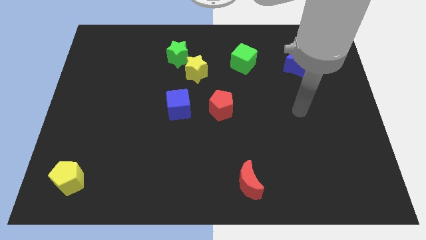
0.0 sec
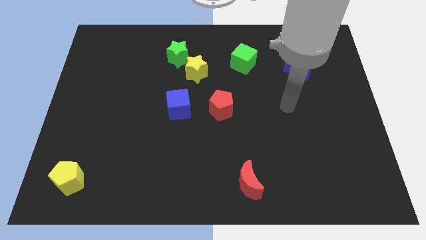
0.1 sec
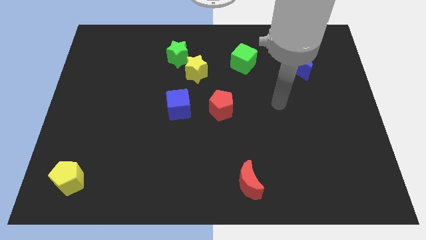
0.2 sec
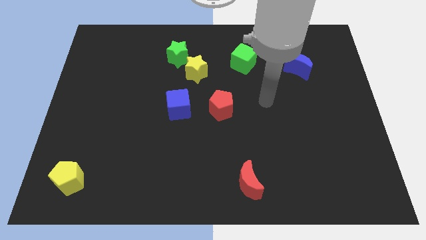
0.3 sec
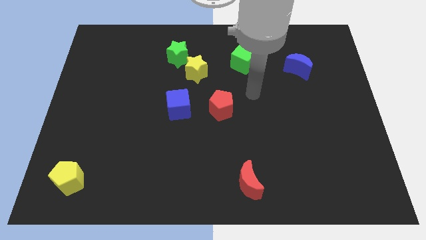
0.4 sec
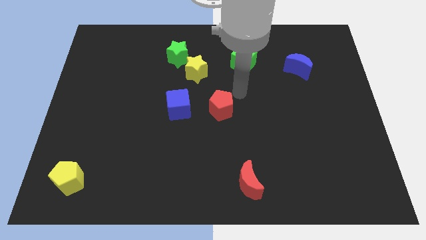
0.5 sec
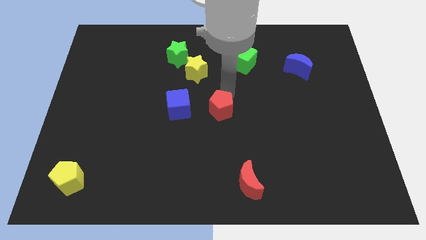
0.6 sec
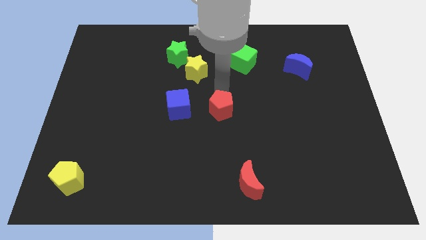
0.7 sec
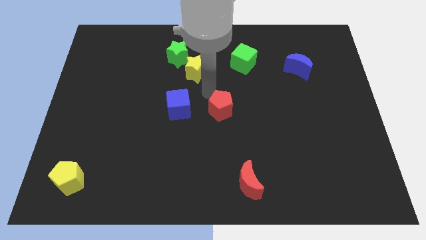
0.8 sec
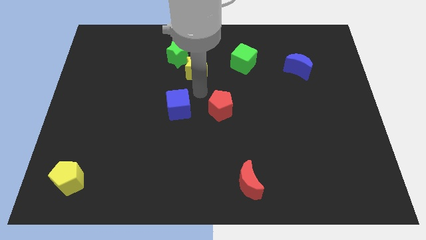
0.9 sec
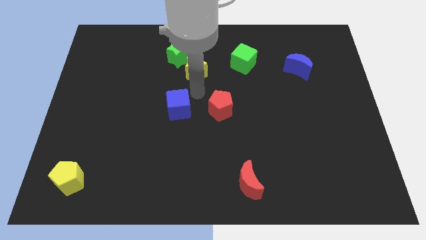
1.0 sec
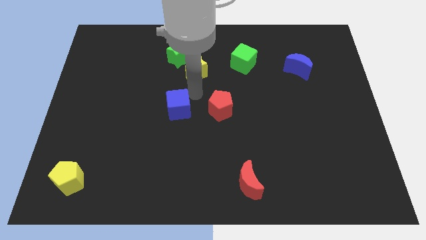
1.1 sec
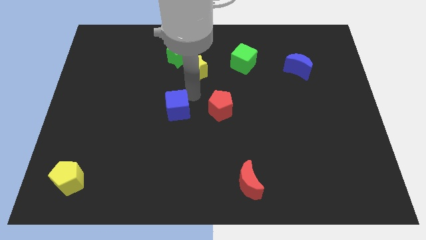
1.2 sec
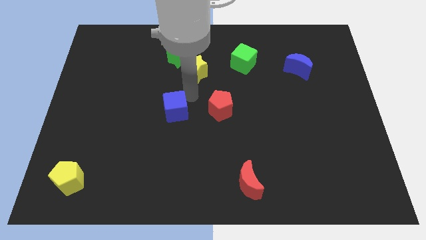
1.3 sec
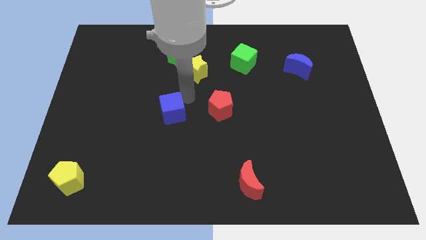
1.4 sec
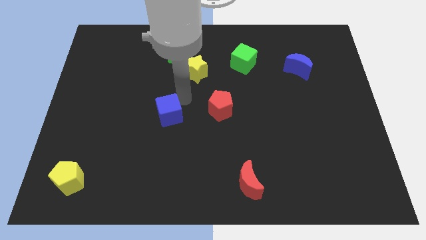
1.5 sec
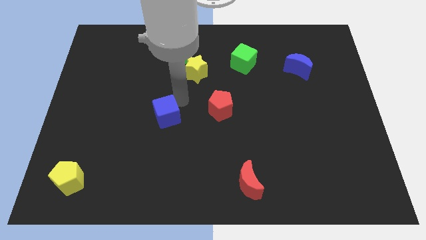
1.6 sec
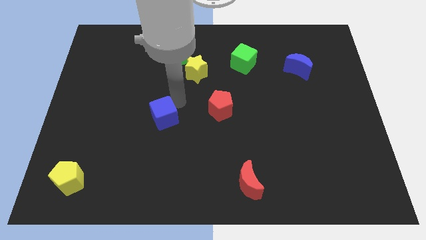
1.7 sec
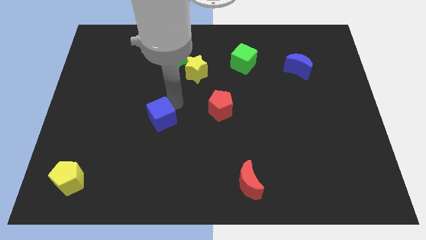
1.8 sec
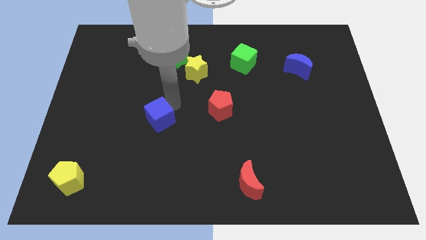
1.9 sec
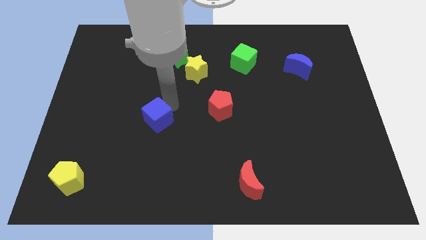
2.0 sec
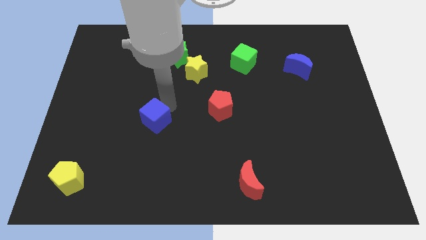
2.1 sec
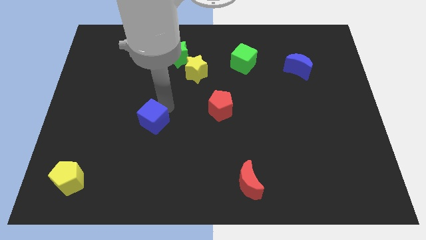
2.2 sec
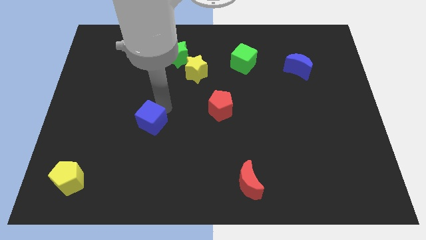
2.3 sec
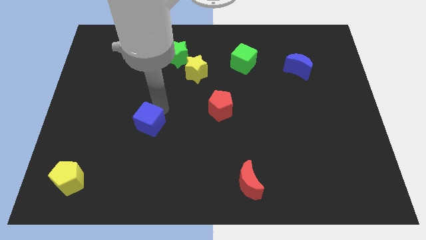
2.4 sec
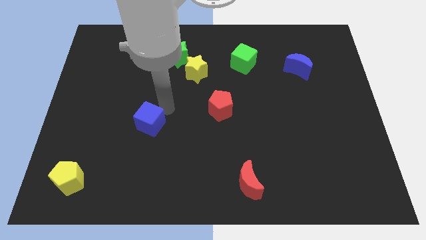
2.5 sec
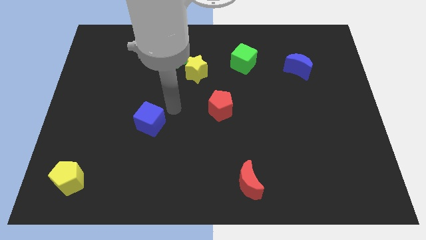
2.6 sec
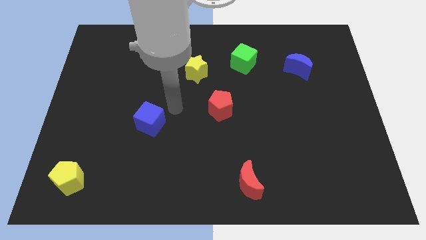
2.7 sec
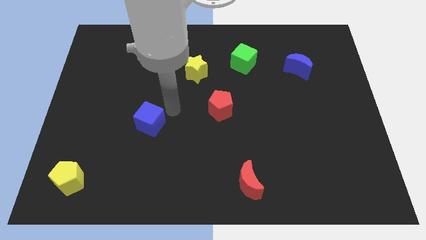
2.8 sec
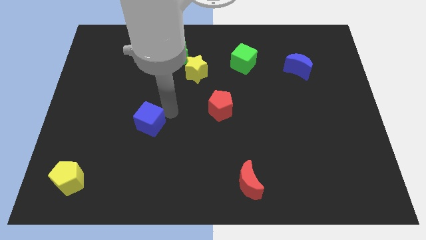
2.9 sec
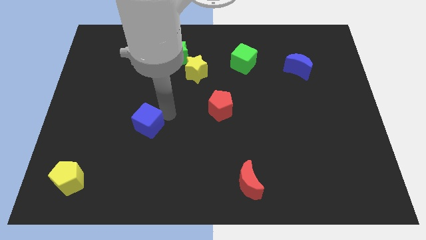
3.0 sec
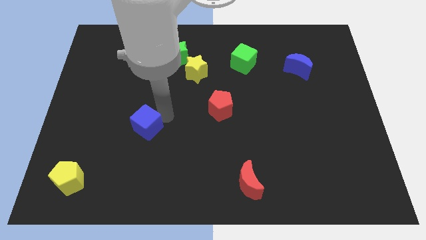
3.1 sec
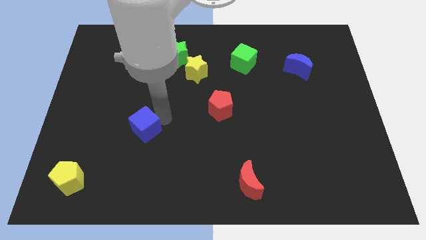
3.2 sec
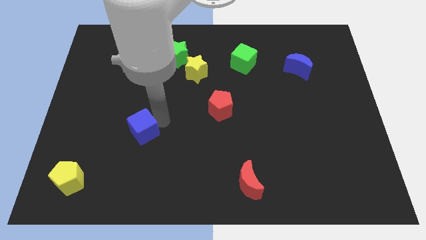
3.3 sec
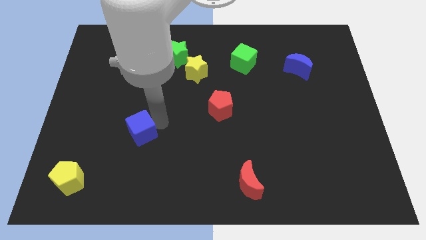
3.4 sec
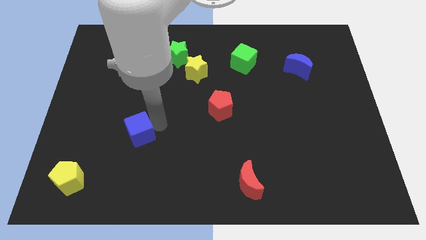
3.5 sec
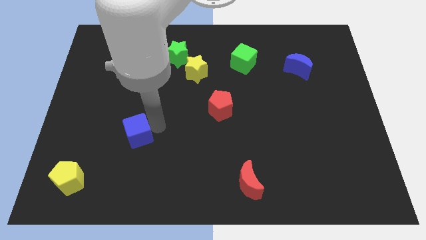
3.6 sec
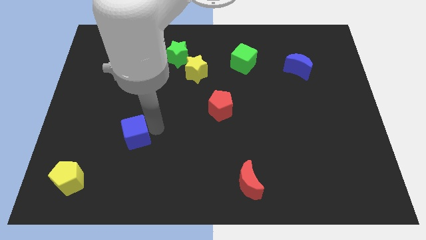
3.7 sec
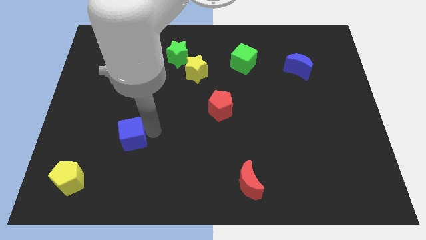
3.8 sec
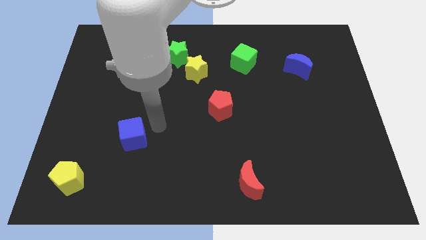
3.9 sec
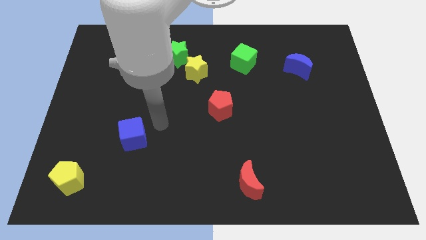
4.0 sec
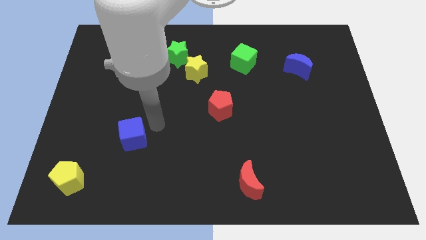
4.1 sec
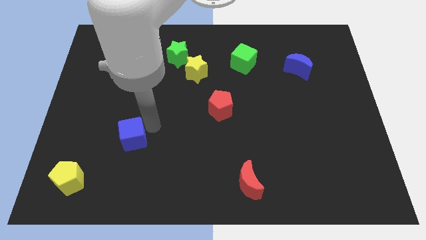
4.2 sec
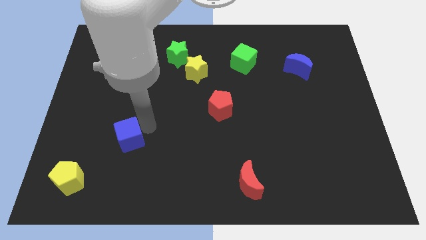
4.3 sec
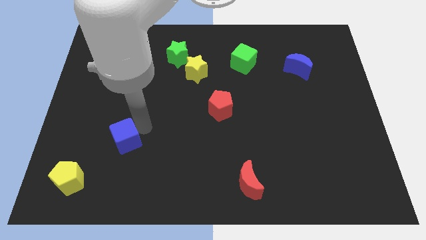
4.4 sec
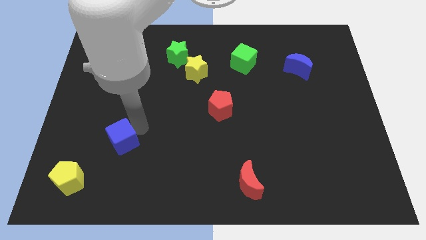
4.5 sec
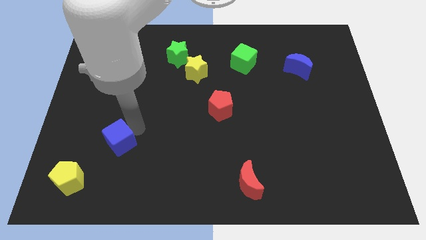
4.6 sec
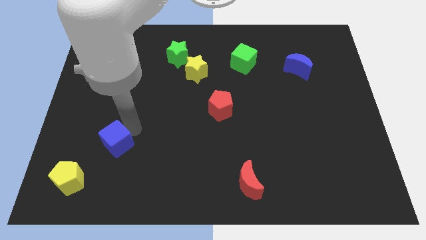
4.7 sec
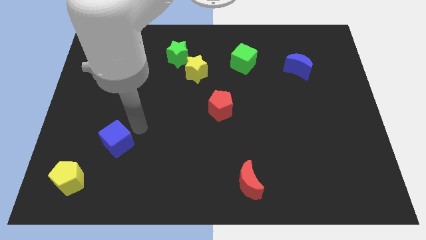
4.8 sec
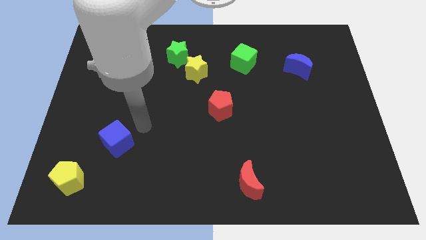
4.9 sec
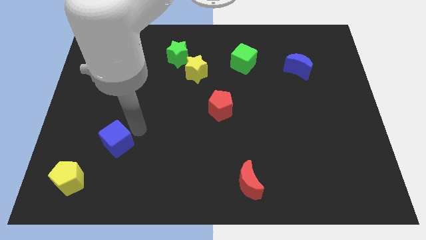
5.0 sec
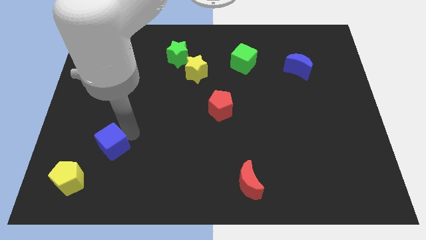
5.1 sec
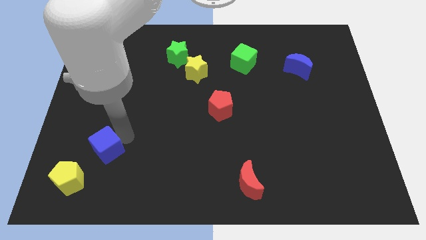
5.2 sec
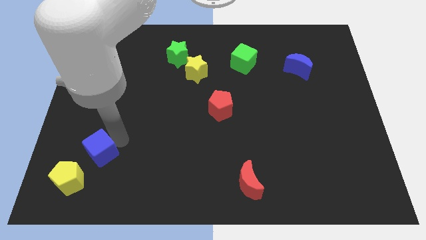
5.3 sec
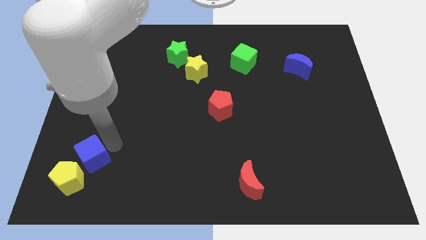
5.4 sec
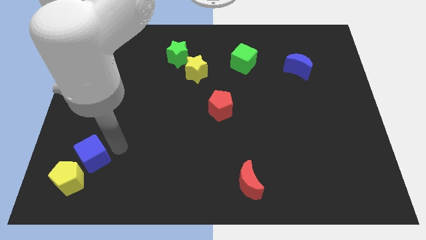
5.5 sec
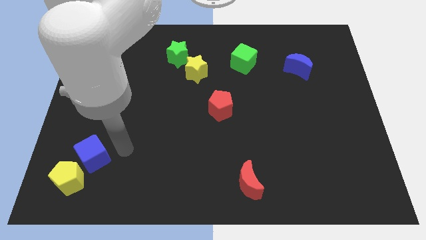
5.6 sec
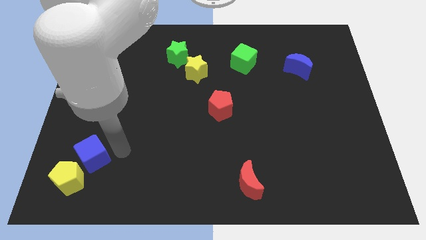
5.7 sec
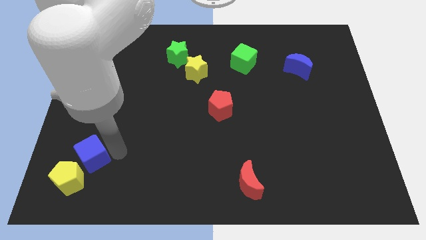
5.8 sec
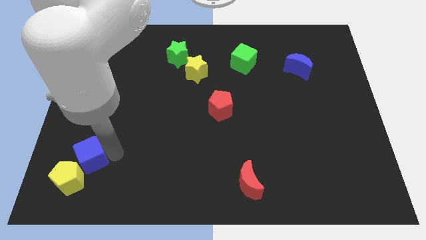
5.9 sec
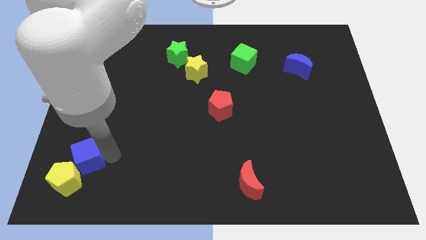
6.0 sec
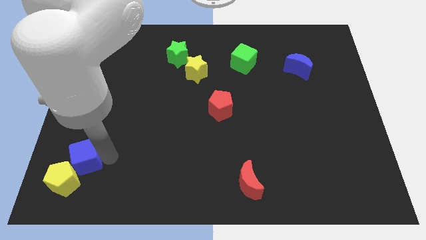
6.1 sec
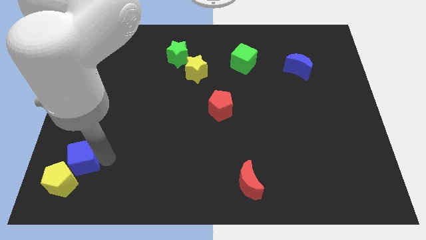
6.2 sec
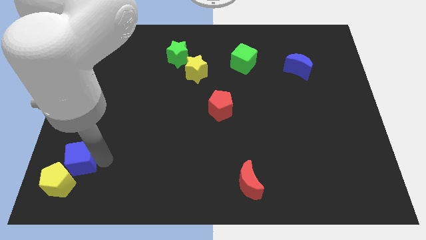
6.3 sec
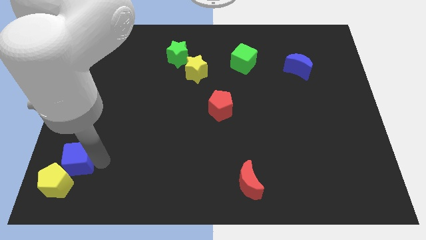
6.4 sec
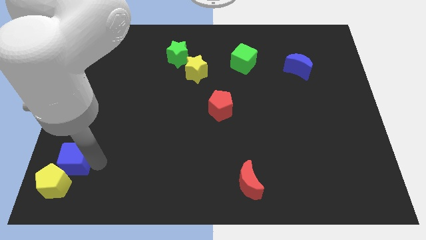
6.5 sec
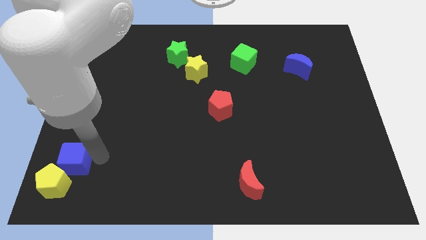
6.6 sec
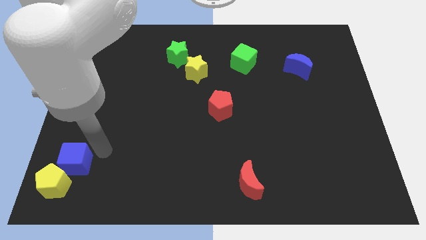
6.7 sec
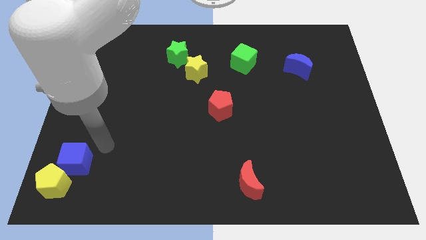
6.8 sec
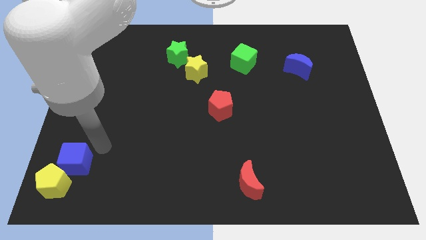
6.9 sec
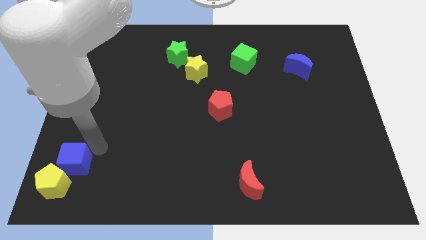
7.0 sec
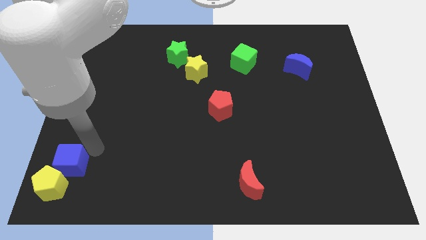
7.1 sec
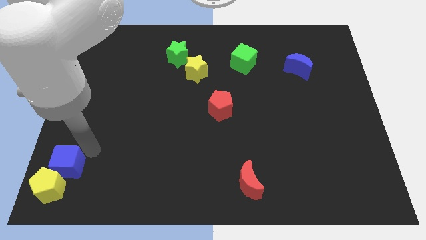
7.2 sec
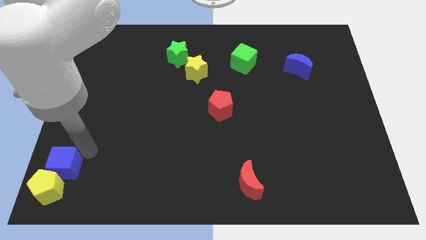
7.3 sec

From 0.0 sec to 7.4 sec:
move the blue cube to the bottom left corner
